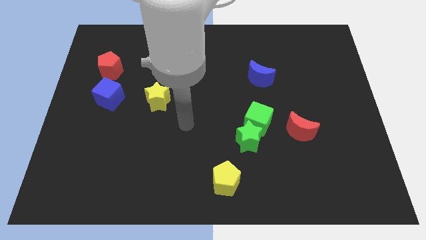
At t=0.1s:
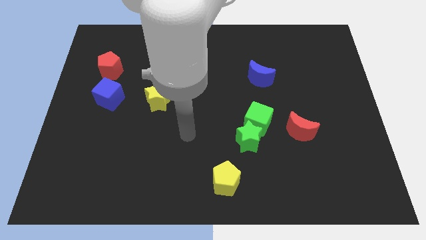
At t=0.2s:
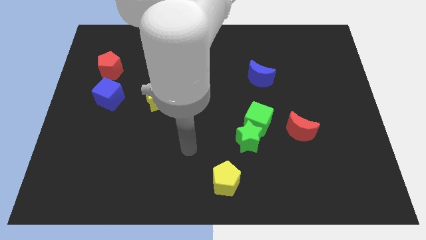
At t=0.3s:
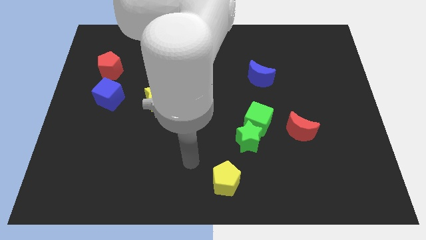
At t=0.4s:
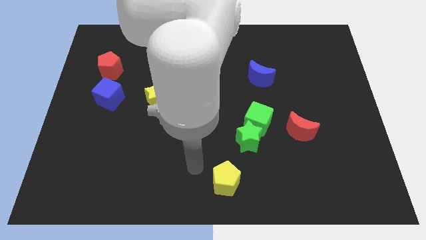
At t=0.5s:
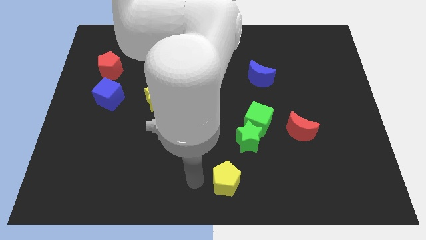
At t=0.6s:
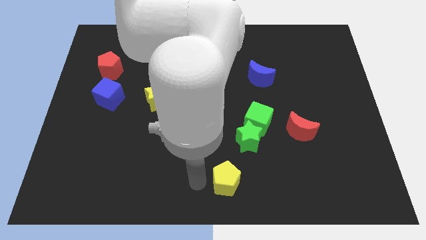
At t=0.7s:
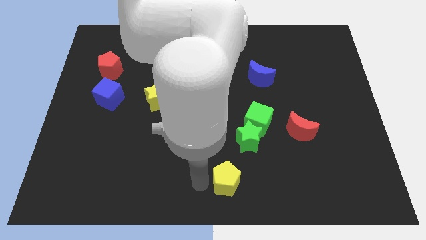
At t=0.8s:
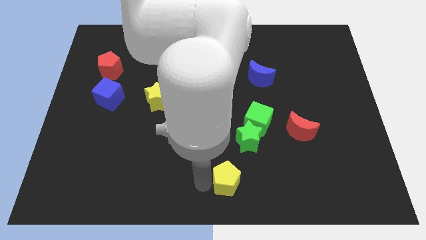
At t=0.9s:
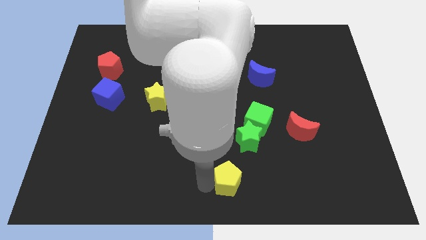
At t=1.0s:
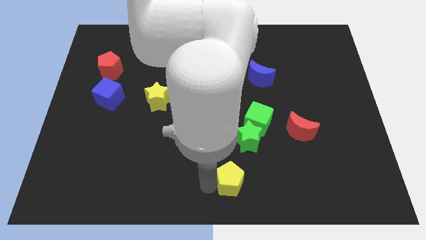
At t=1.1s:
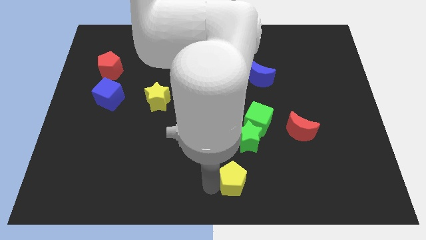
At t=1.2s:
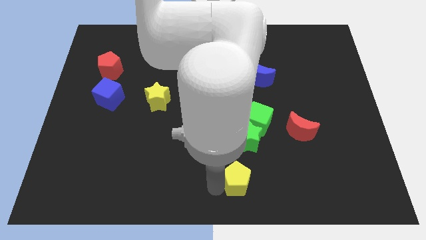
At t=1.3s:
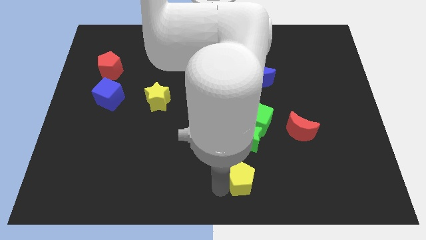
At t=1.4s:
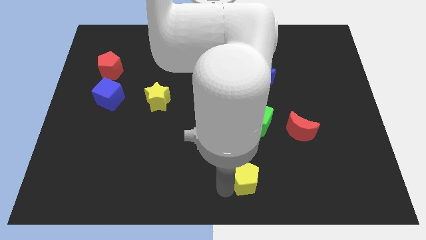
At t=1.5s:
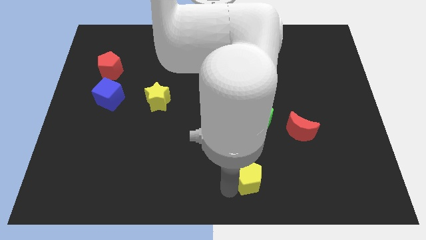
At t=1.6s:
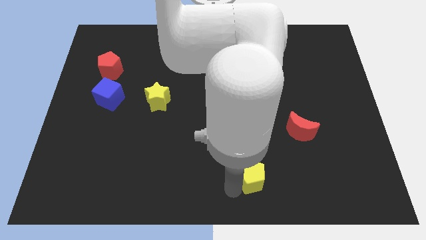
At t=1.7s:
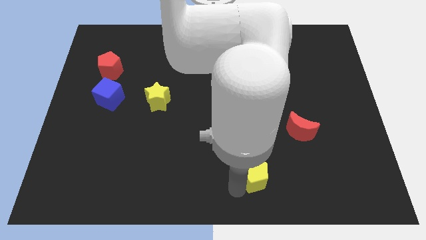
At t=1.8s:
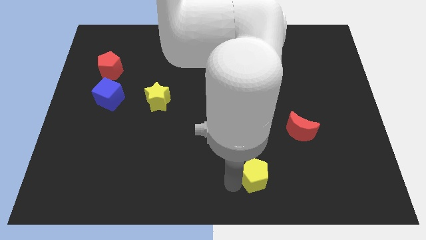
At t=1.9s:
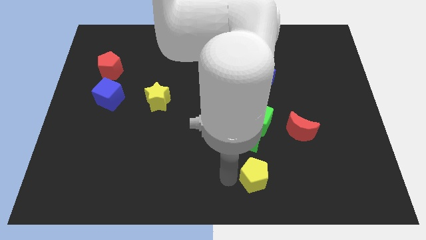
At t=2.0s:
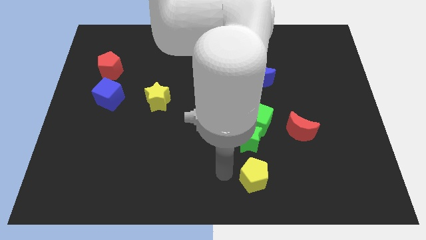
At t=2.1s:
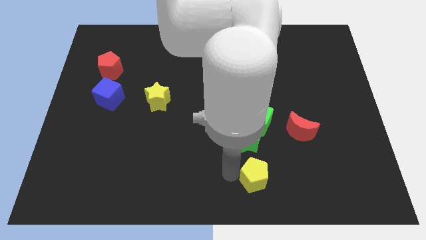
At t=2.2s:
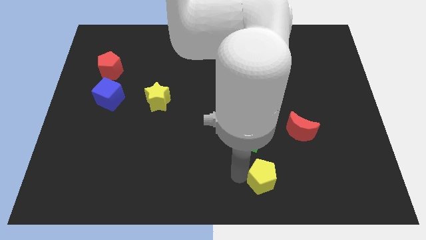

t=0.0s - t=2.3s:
move the yellow pentagon to the right somewhat

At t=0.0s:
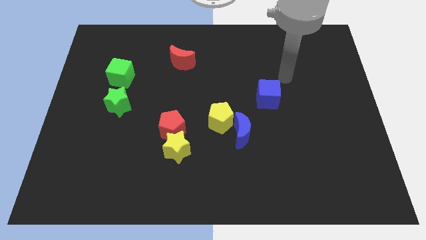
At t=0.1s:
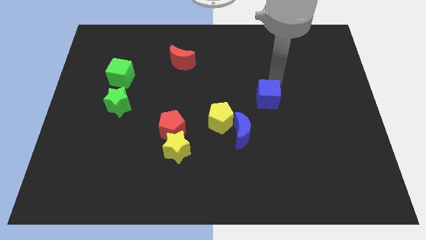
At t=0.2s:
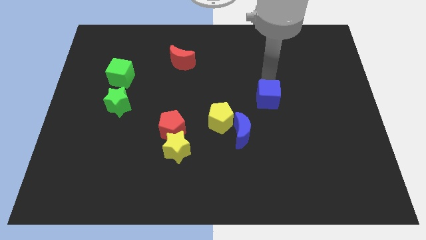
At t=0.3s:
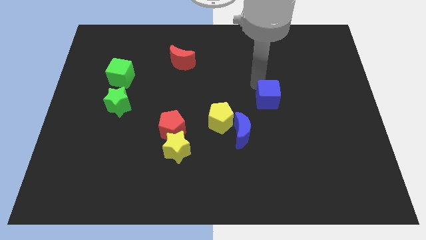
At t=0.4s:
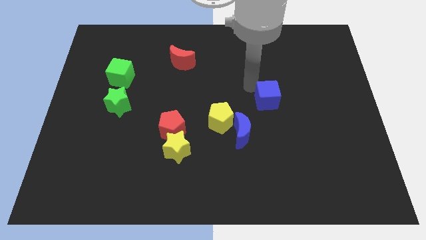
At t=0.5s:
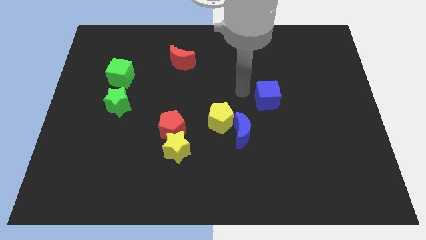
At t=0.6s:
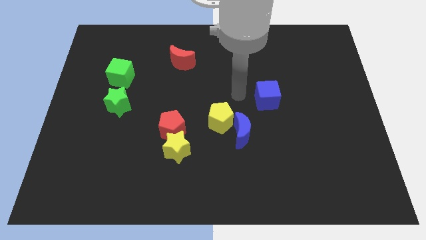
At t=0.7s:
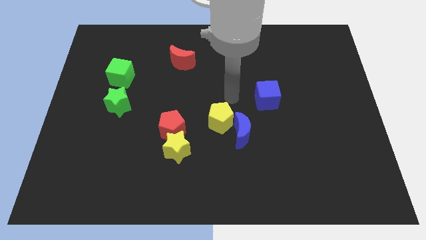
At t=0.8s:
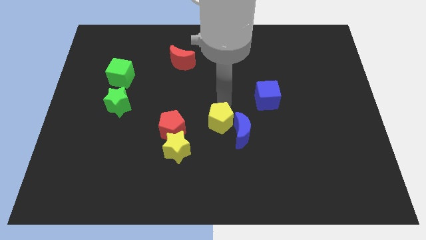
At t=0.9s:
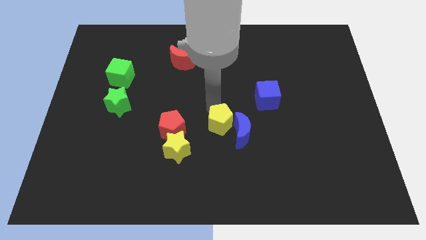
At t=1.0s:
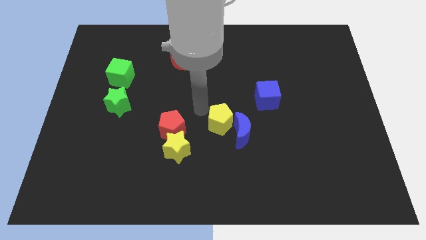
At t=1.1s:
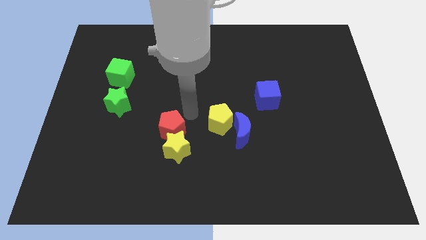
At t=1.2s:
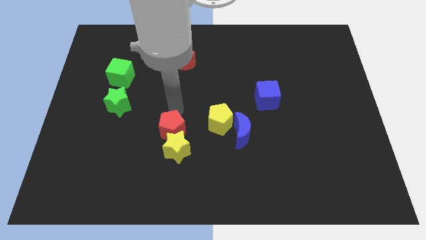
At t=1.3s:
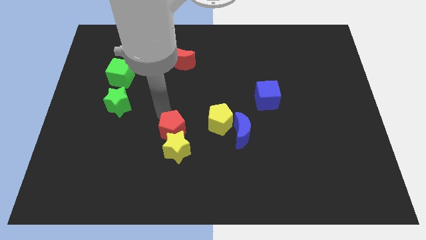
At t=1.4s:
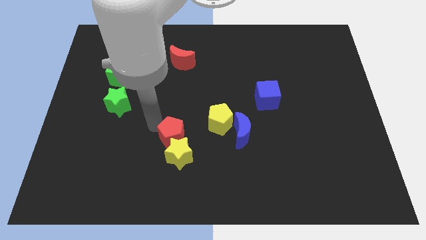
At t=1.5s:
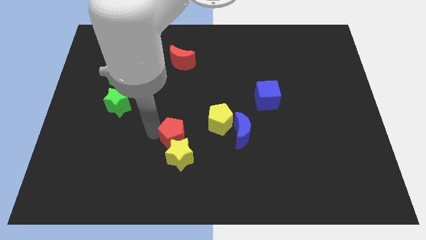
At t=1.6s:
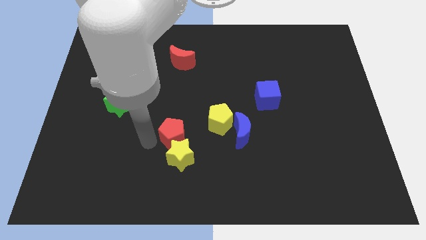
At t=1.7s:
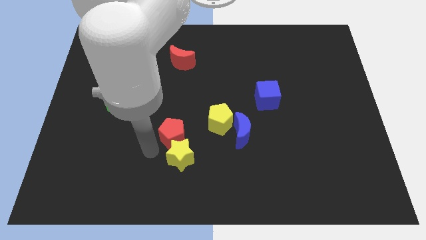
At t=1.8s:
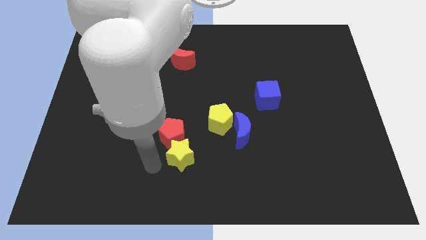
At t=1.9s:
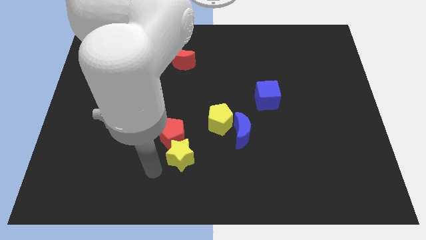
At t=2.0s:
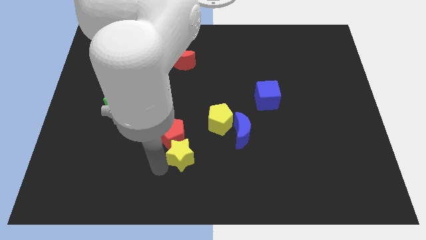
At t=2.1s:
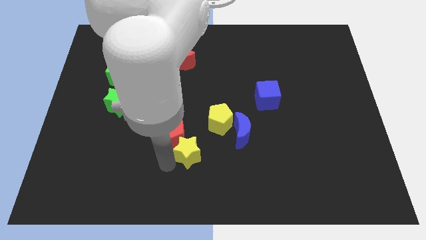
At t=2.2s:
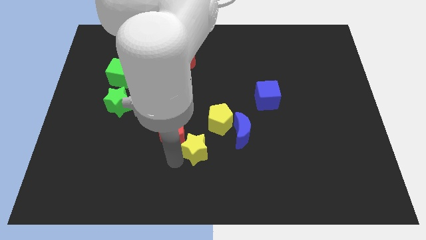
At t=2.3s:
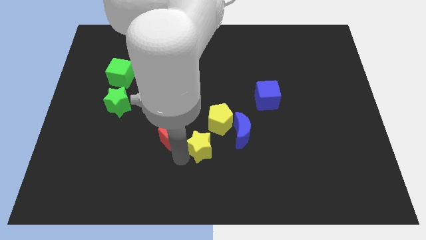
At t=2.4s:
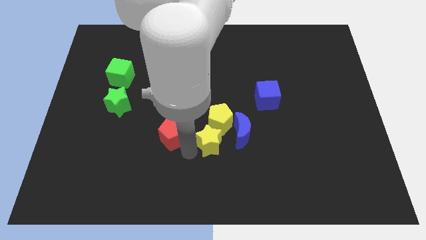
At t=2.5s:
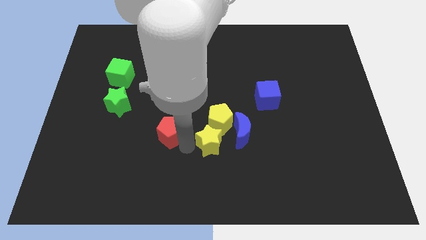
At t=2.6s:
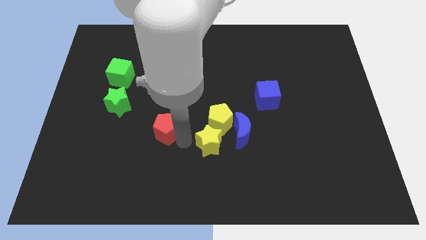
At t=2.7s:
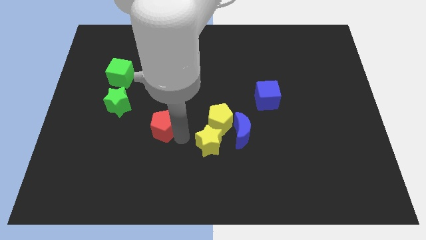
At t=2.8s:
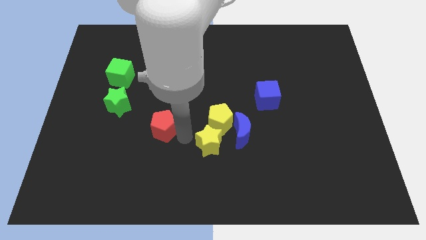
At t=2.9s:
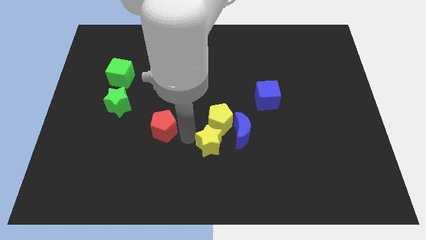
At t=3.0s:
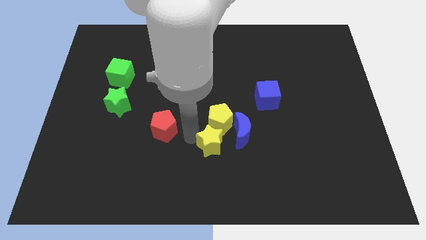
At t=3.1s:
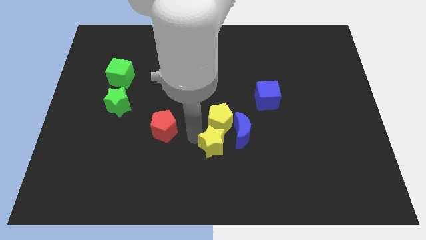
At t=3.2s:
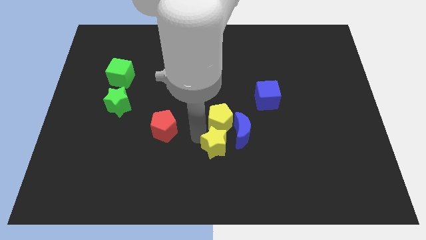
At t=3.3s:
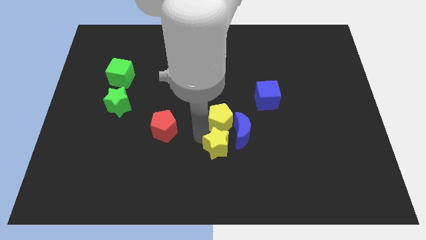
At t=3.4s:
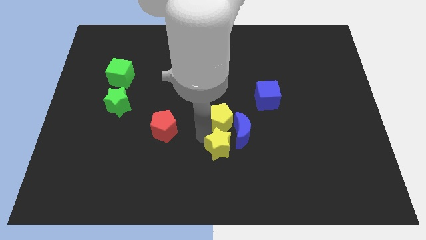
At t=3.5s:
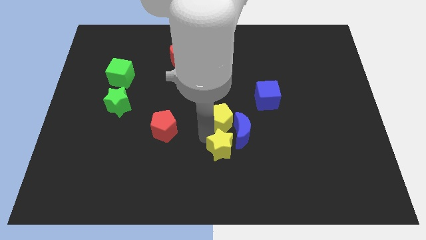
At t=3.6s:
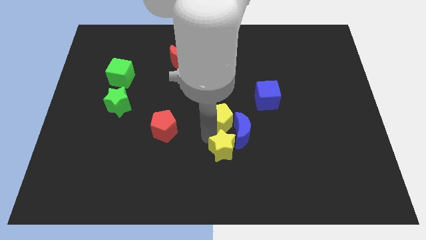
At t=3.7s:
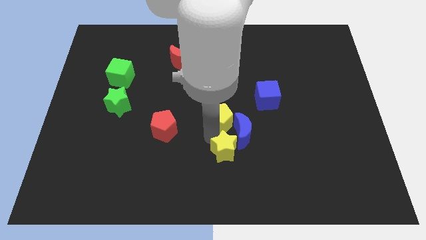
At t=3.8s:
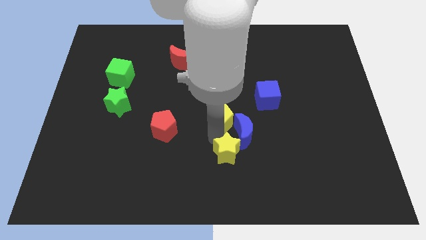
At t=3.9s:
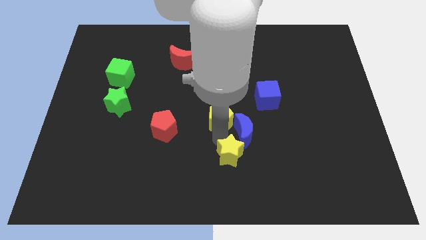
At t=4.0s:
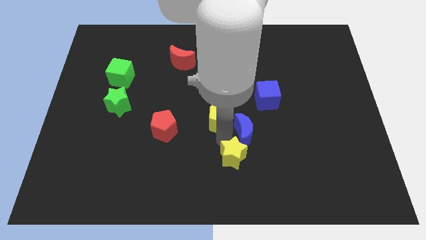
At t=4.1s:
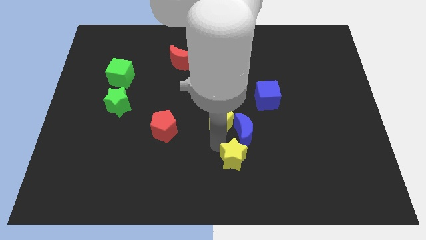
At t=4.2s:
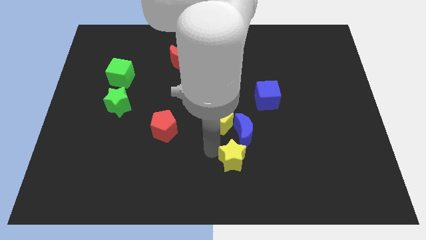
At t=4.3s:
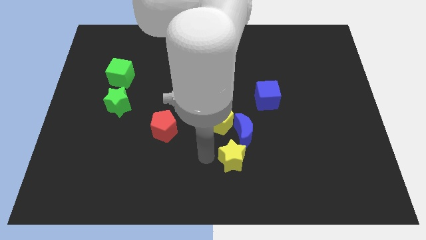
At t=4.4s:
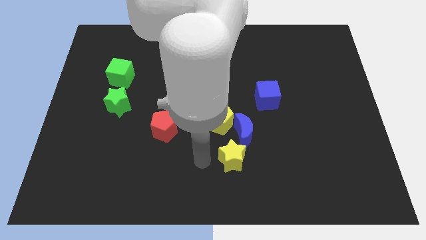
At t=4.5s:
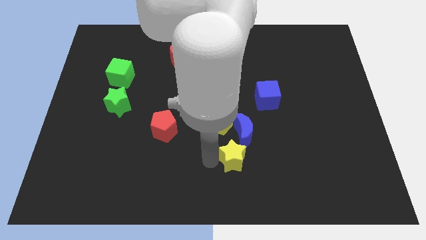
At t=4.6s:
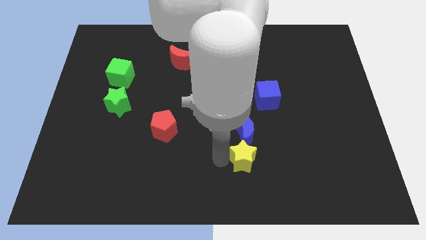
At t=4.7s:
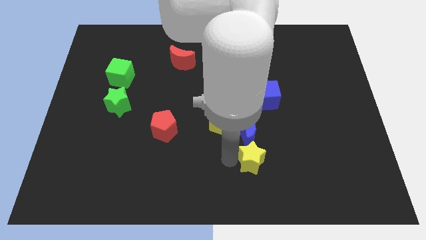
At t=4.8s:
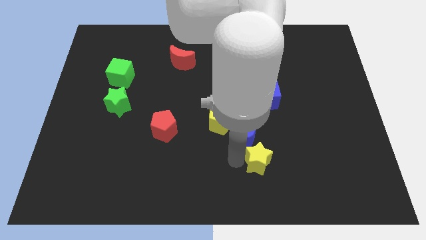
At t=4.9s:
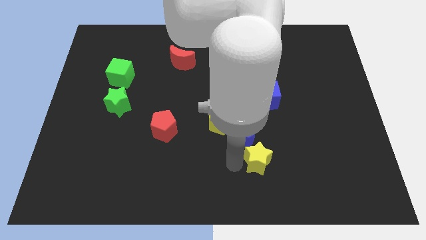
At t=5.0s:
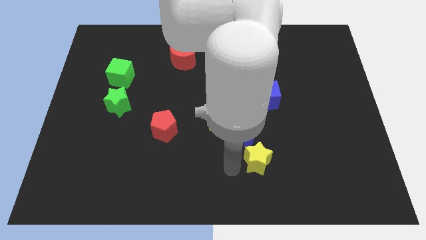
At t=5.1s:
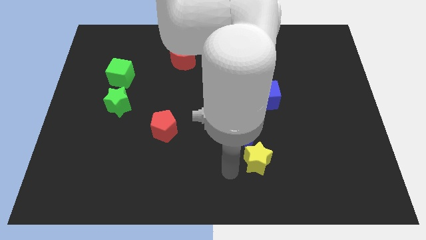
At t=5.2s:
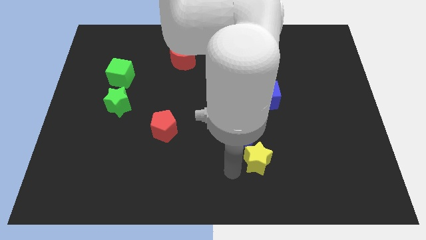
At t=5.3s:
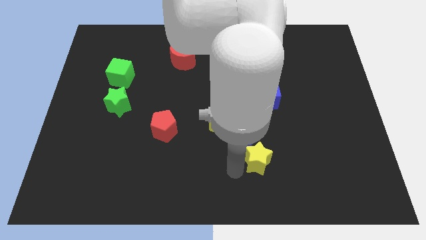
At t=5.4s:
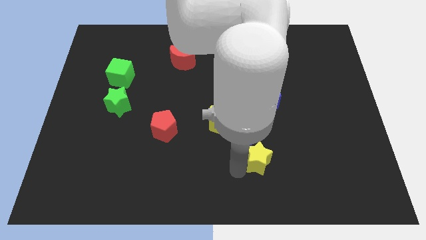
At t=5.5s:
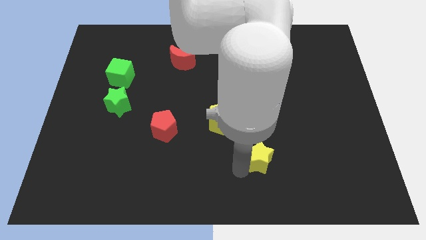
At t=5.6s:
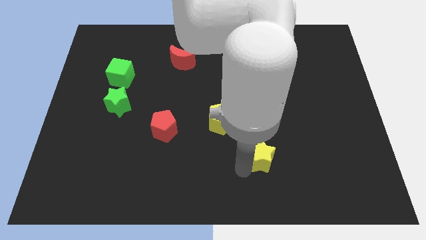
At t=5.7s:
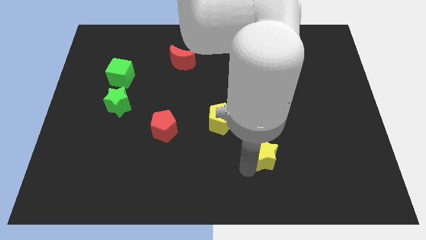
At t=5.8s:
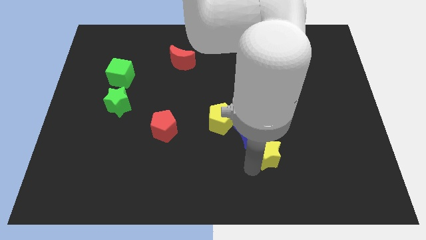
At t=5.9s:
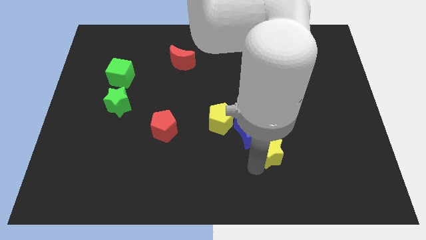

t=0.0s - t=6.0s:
move the yellow star right
